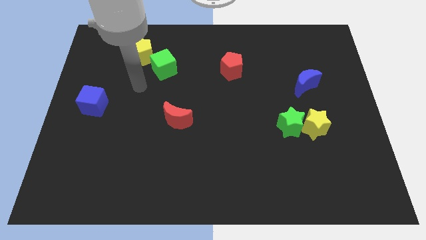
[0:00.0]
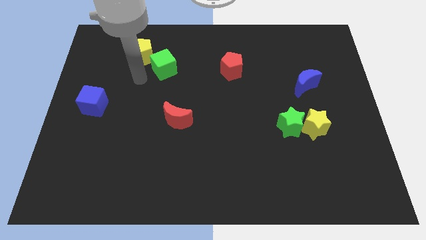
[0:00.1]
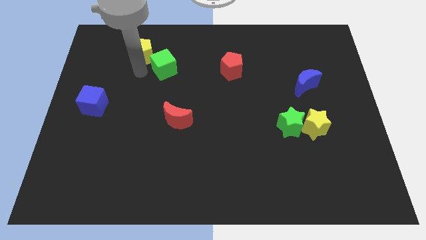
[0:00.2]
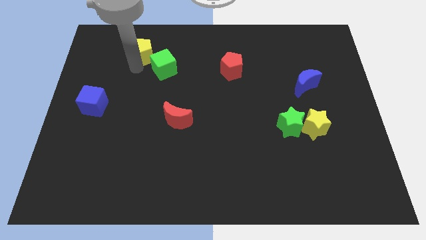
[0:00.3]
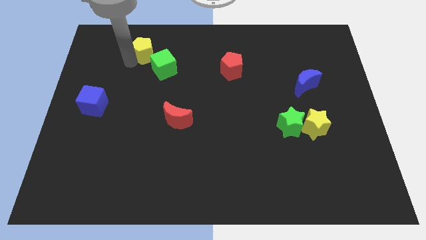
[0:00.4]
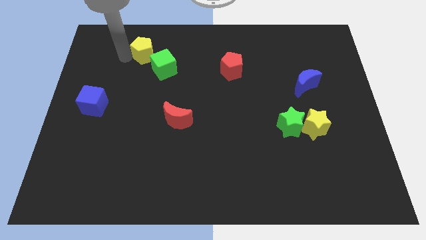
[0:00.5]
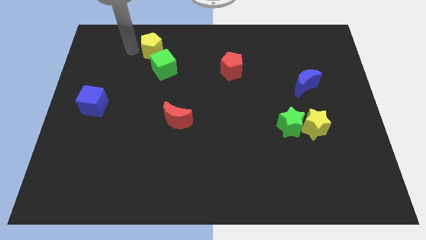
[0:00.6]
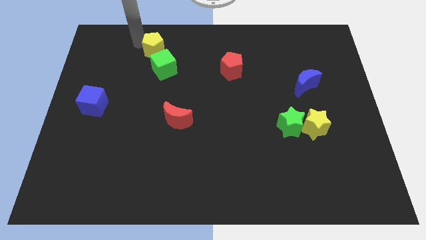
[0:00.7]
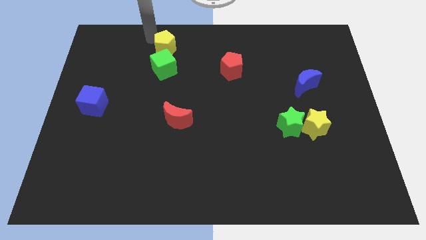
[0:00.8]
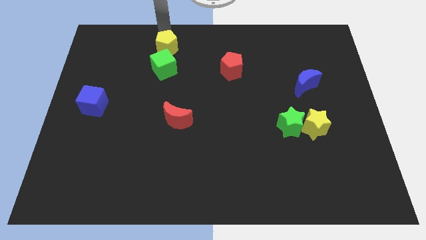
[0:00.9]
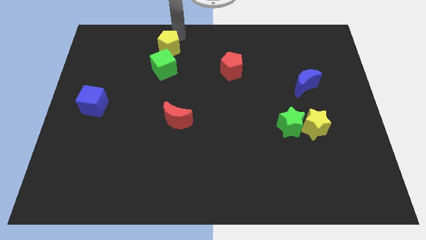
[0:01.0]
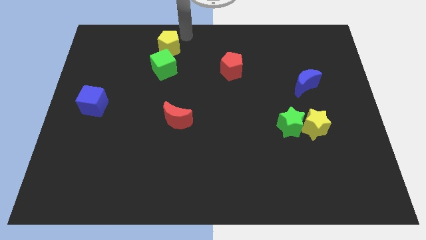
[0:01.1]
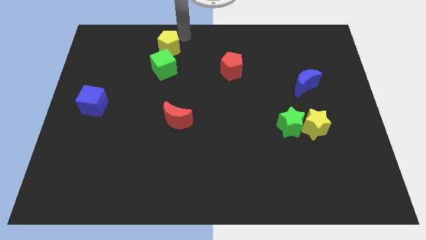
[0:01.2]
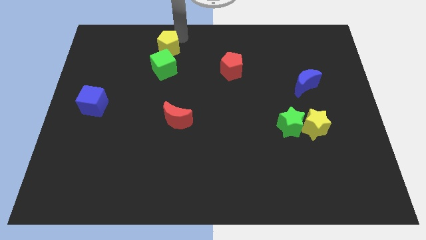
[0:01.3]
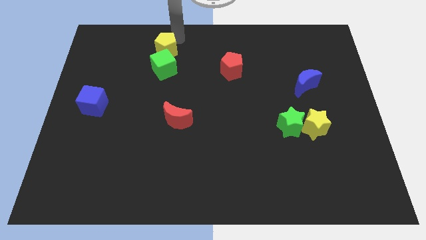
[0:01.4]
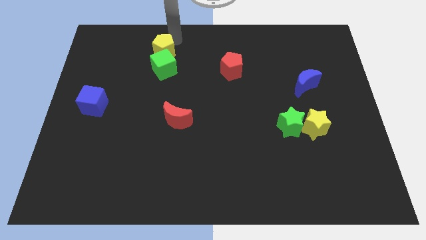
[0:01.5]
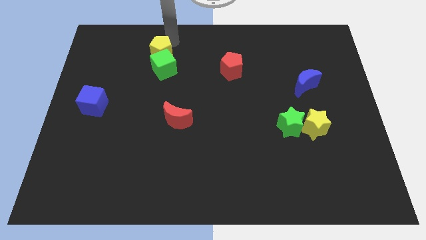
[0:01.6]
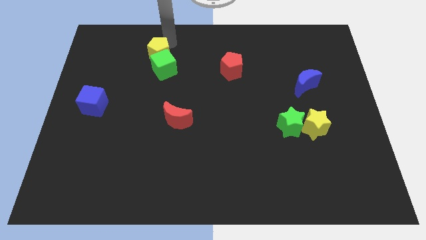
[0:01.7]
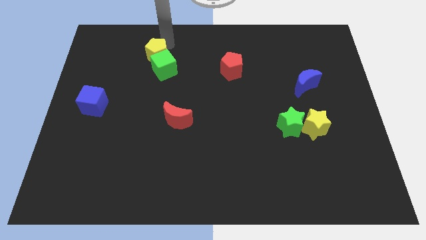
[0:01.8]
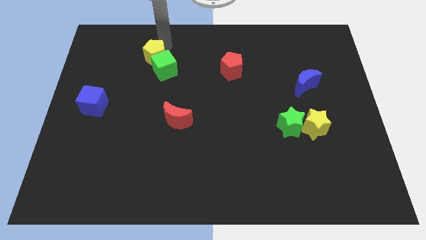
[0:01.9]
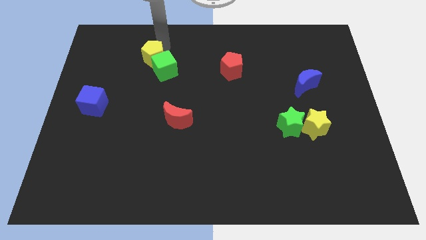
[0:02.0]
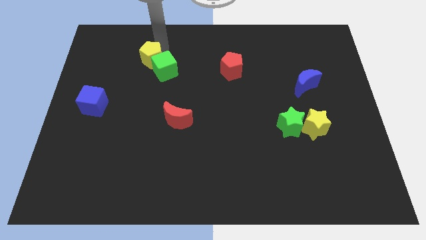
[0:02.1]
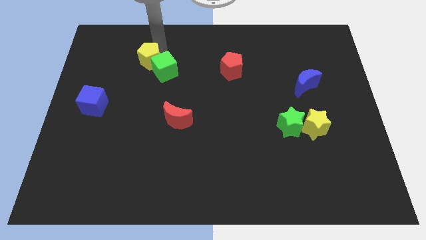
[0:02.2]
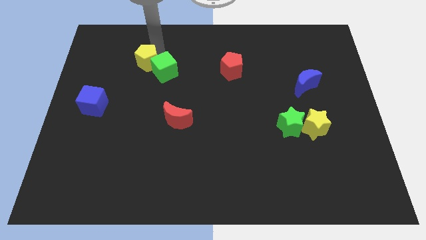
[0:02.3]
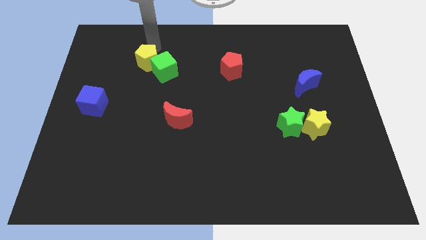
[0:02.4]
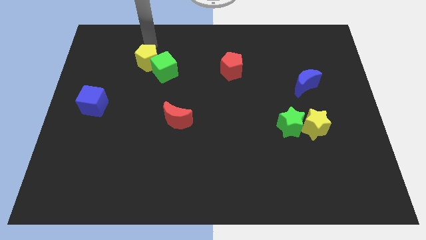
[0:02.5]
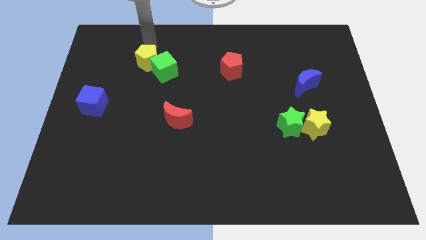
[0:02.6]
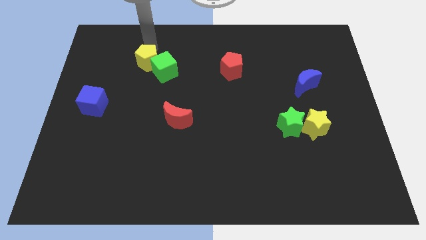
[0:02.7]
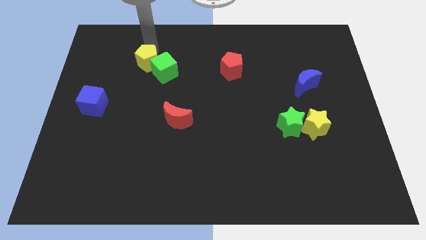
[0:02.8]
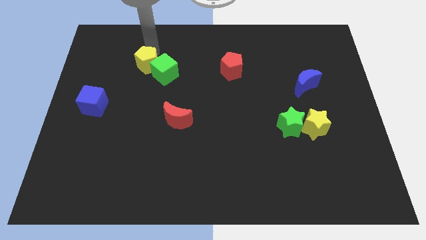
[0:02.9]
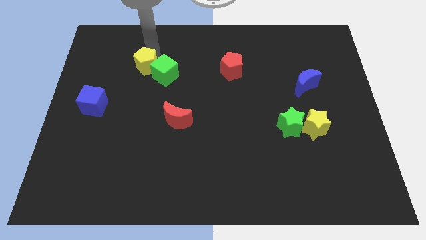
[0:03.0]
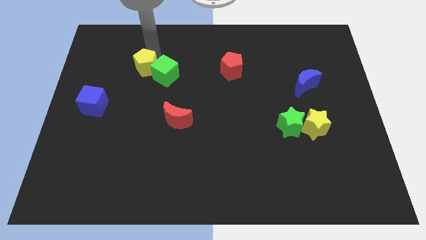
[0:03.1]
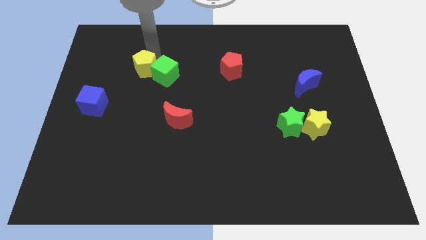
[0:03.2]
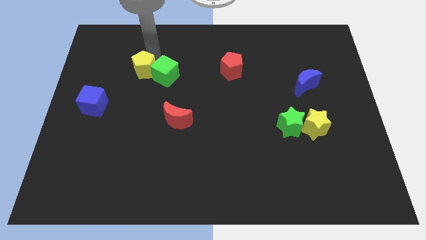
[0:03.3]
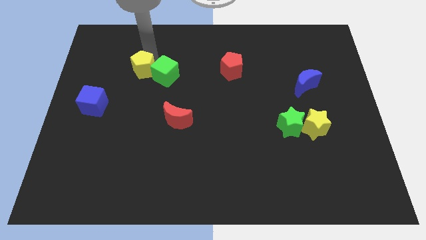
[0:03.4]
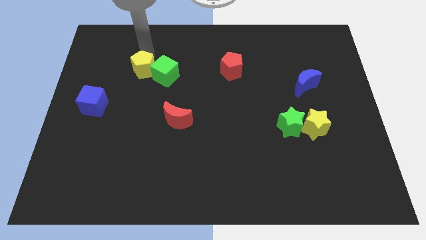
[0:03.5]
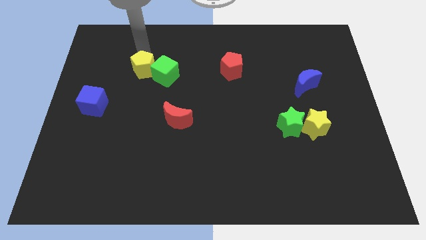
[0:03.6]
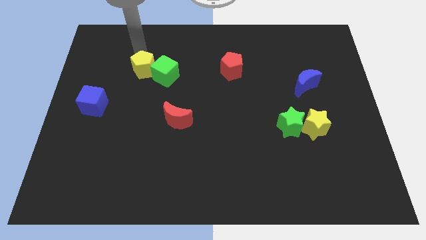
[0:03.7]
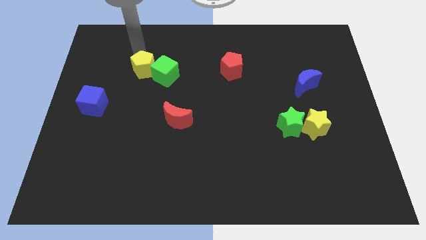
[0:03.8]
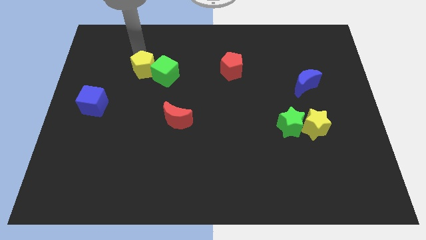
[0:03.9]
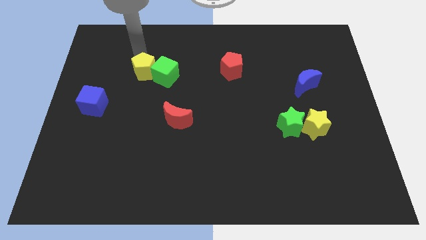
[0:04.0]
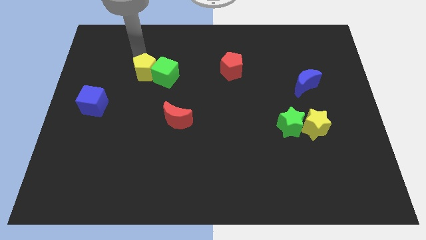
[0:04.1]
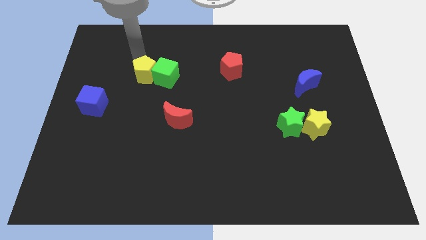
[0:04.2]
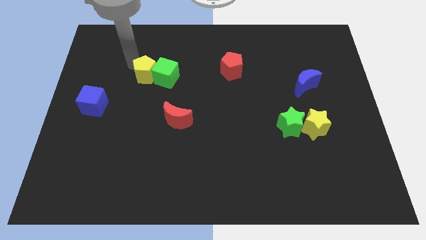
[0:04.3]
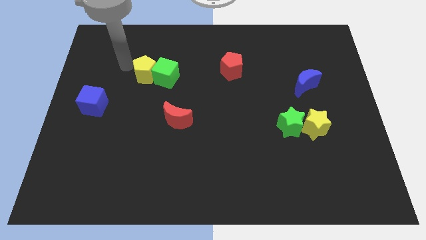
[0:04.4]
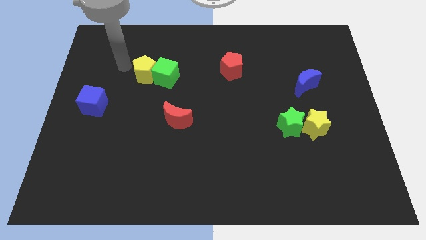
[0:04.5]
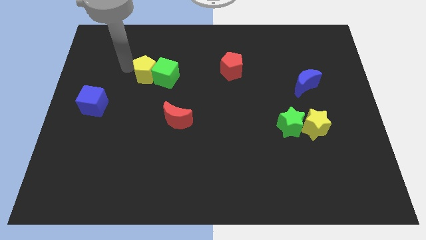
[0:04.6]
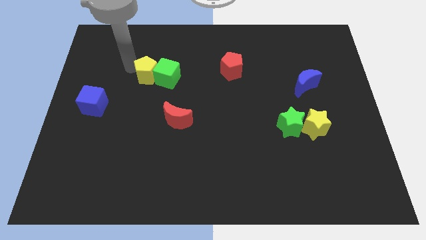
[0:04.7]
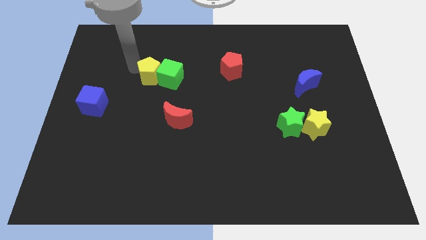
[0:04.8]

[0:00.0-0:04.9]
slightly push the yellow pentagon downwards and then right

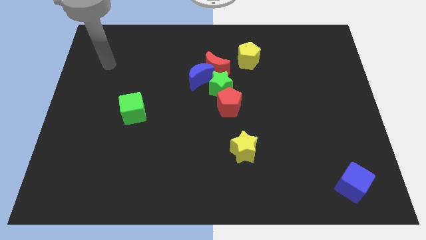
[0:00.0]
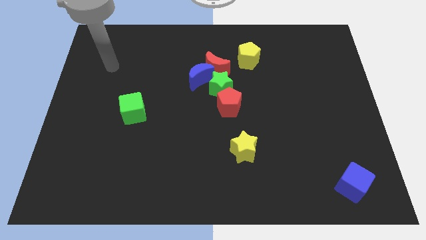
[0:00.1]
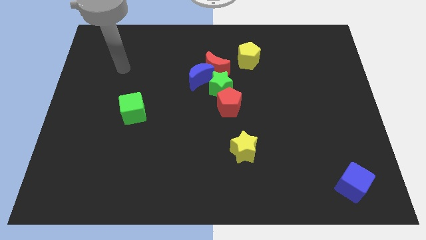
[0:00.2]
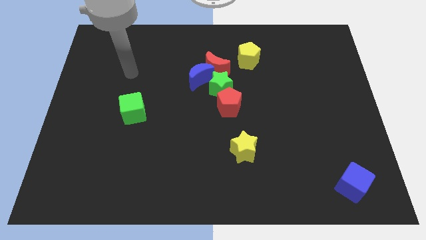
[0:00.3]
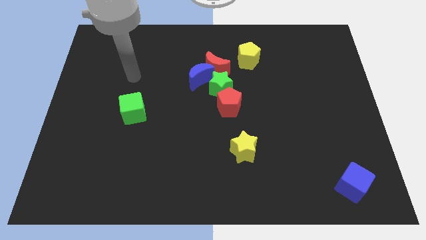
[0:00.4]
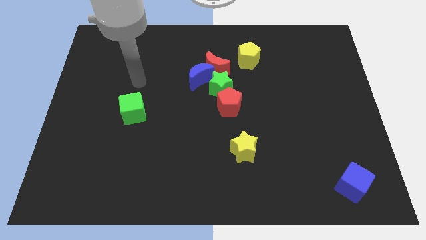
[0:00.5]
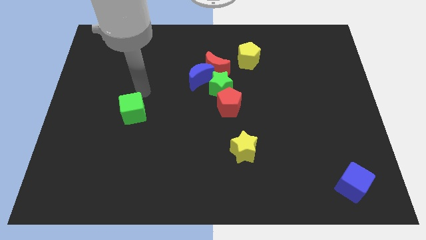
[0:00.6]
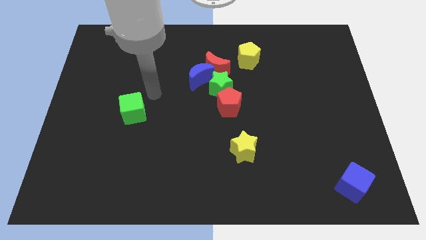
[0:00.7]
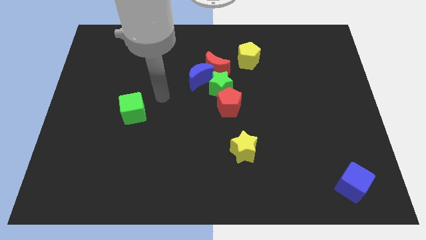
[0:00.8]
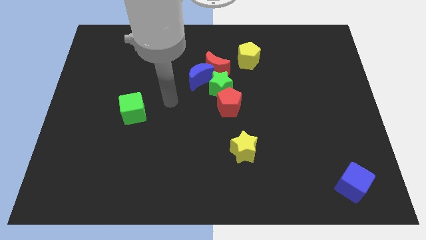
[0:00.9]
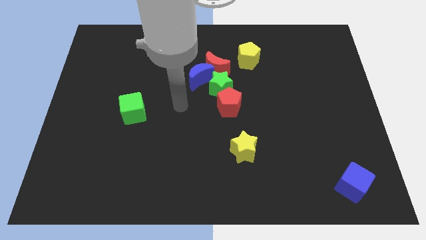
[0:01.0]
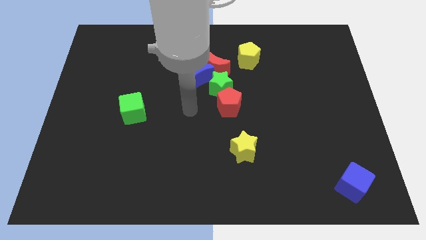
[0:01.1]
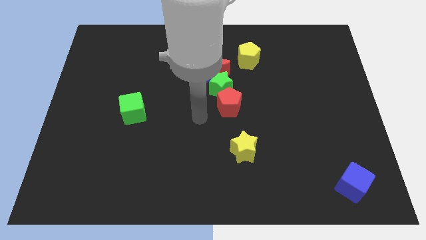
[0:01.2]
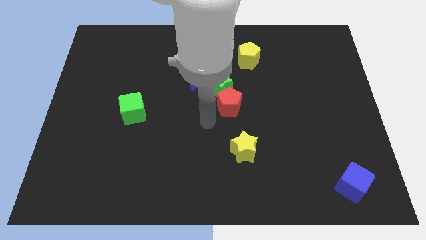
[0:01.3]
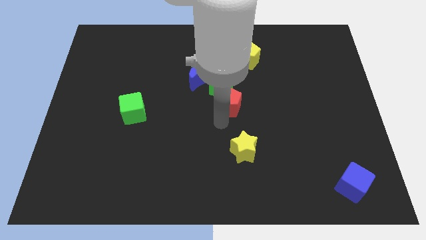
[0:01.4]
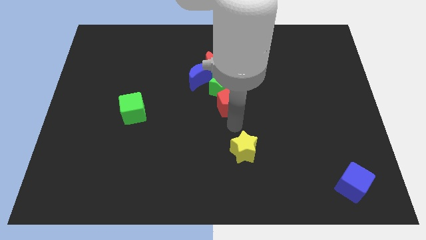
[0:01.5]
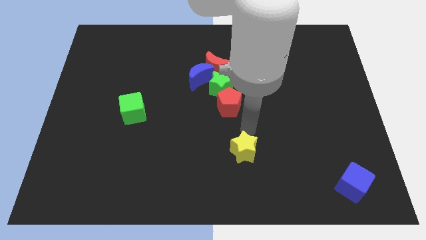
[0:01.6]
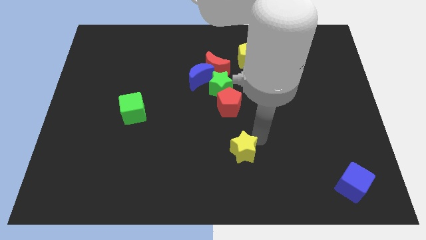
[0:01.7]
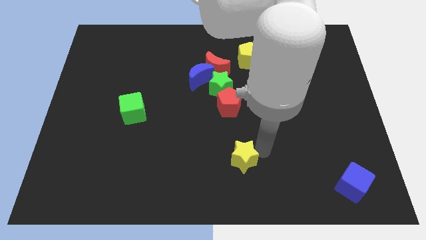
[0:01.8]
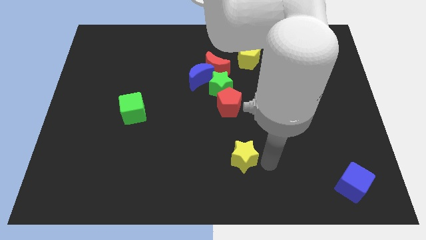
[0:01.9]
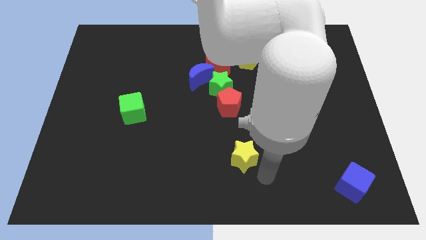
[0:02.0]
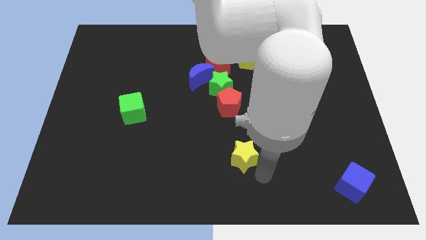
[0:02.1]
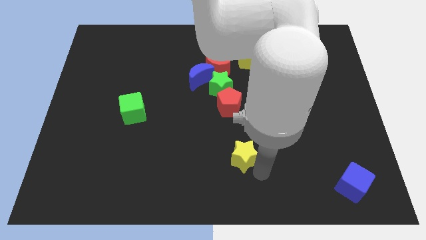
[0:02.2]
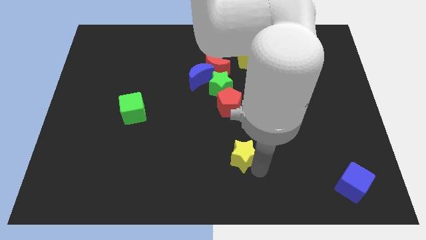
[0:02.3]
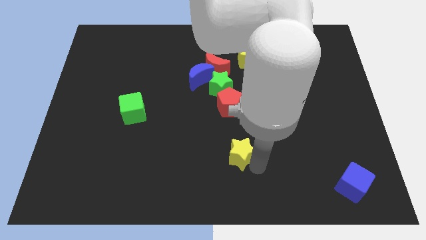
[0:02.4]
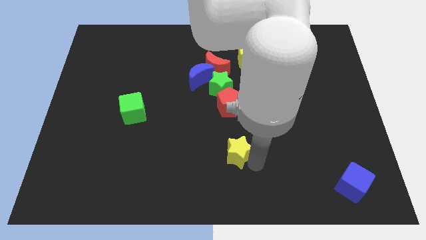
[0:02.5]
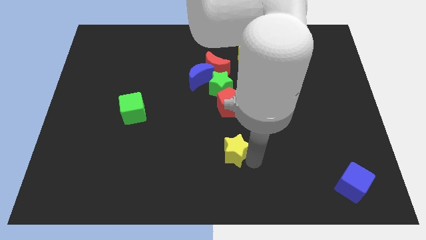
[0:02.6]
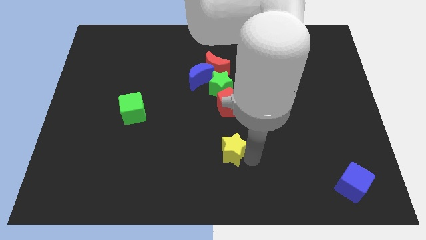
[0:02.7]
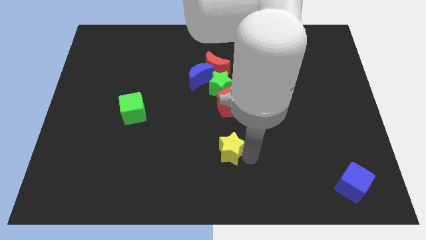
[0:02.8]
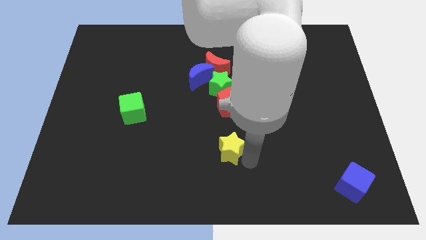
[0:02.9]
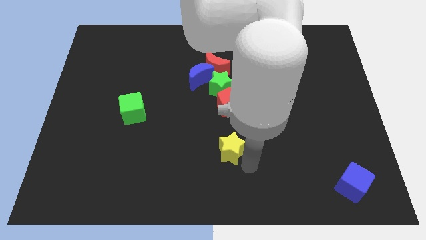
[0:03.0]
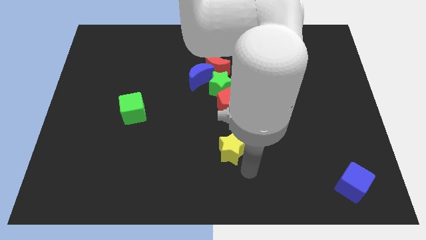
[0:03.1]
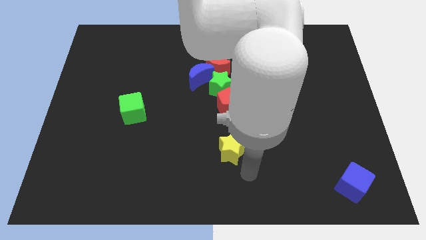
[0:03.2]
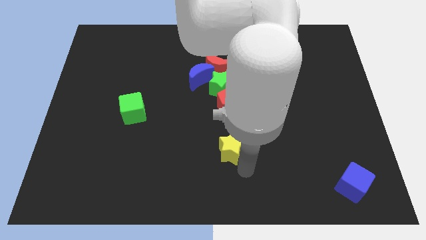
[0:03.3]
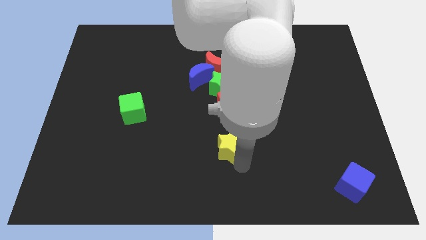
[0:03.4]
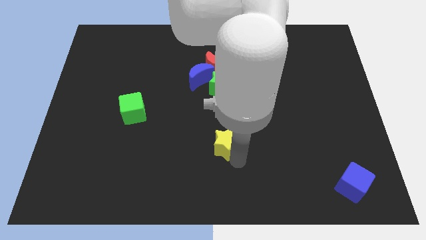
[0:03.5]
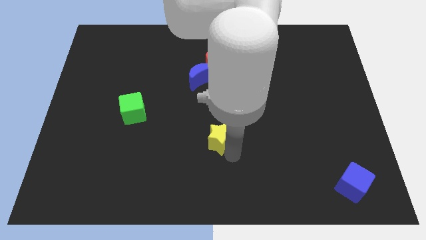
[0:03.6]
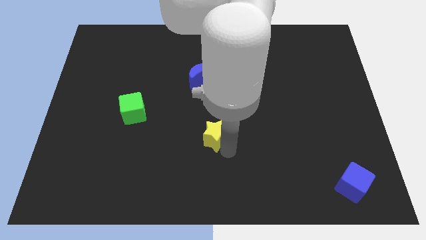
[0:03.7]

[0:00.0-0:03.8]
move the yellow star a little bit up and to the left
